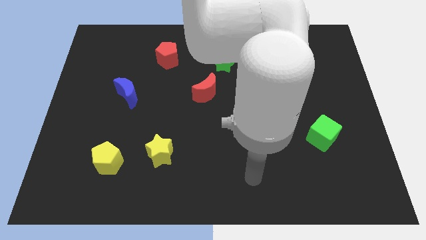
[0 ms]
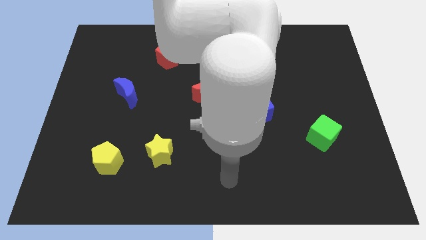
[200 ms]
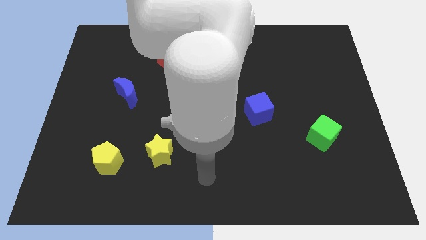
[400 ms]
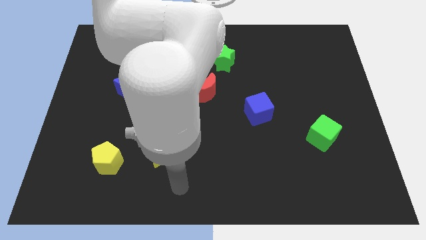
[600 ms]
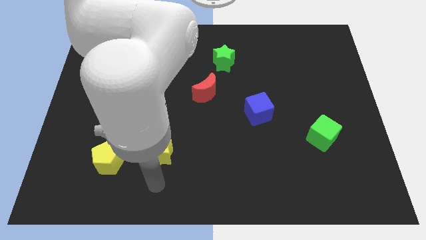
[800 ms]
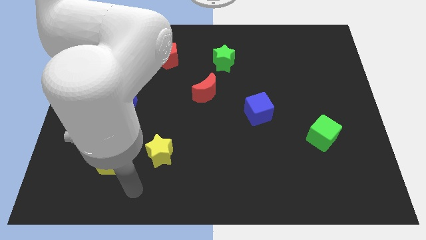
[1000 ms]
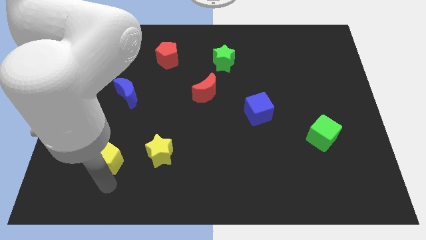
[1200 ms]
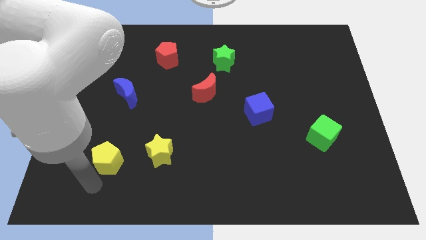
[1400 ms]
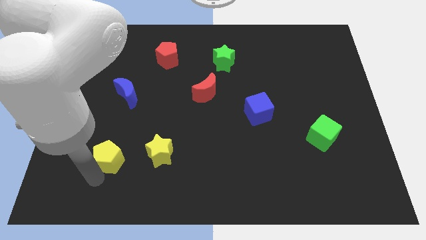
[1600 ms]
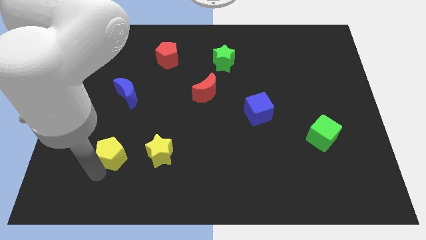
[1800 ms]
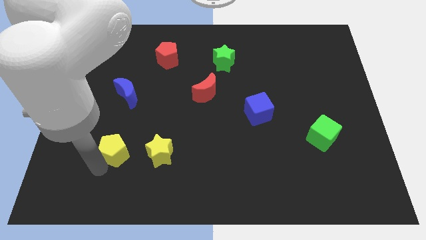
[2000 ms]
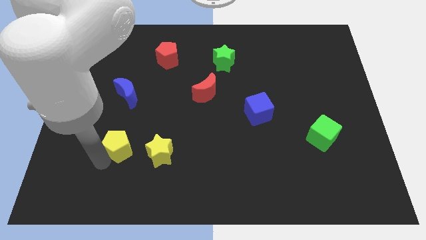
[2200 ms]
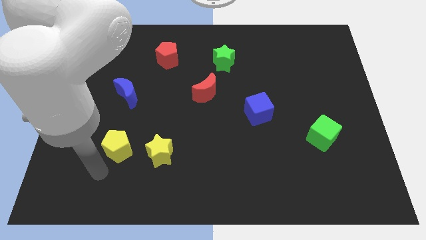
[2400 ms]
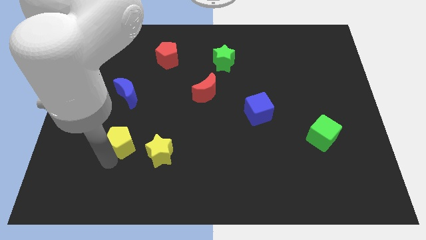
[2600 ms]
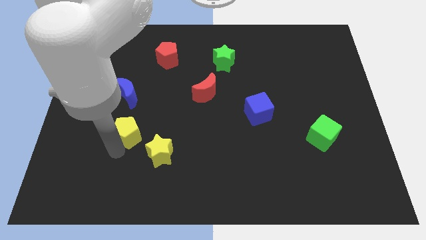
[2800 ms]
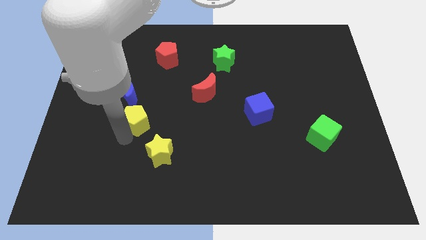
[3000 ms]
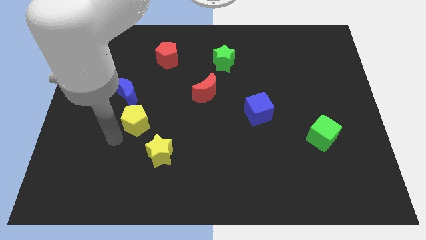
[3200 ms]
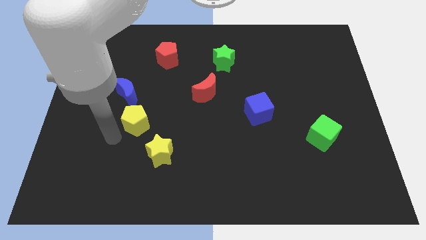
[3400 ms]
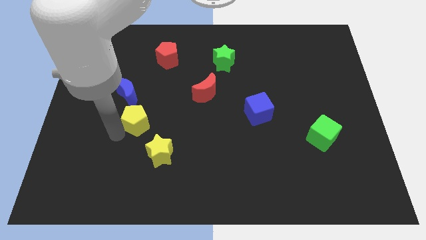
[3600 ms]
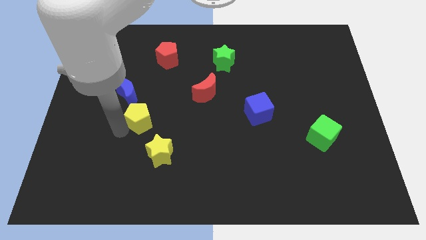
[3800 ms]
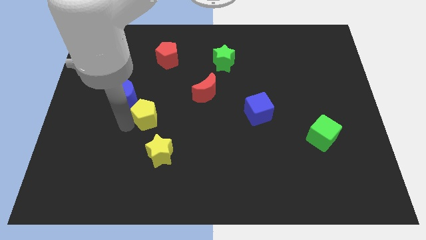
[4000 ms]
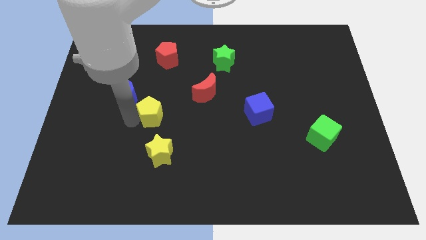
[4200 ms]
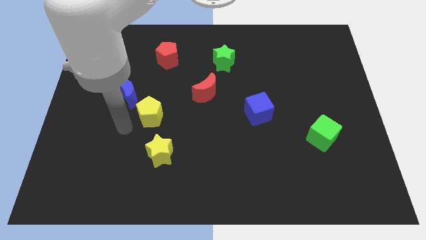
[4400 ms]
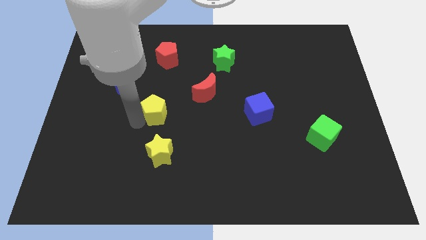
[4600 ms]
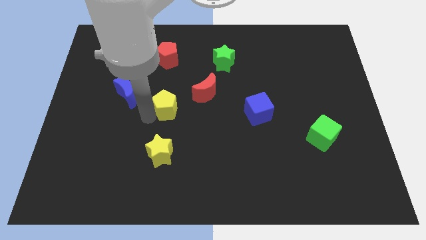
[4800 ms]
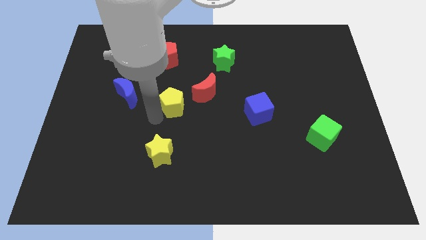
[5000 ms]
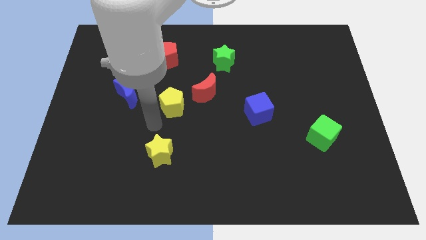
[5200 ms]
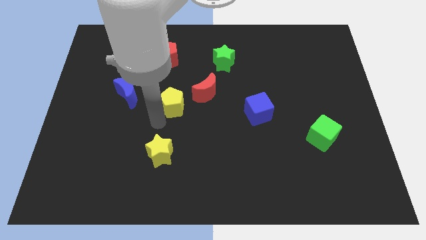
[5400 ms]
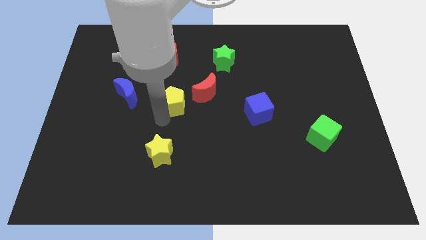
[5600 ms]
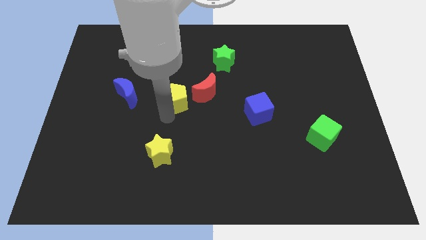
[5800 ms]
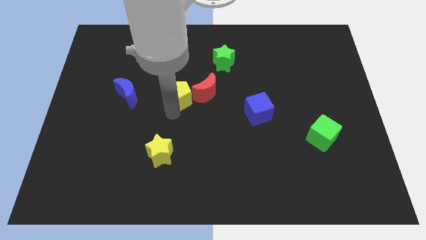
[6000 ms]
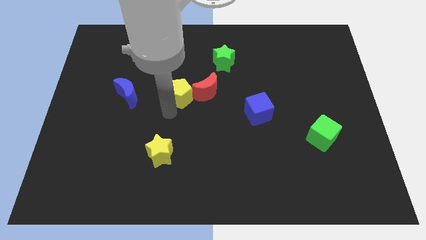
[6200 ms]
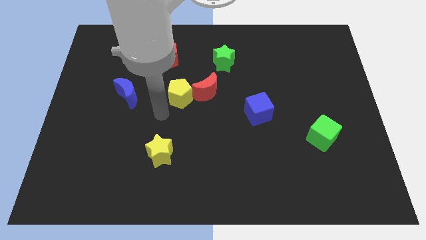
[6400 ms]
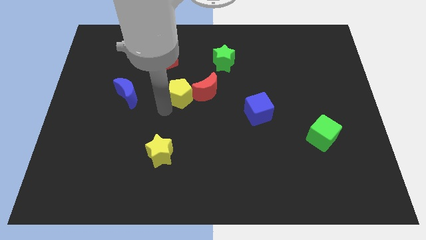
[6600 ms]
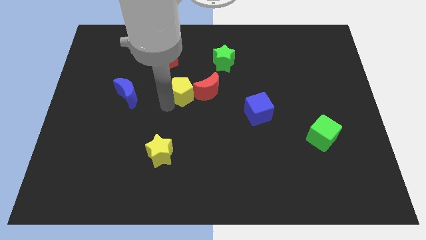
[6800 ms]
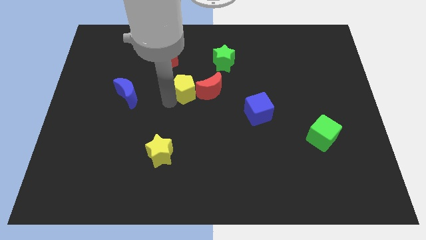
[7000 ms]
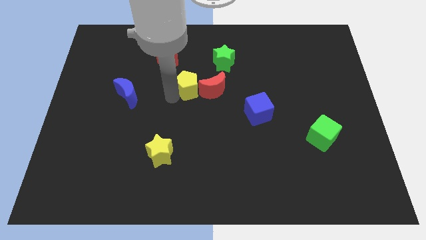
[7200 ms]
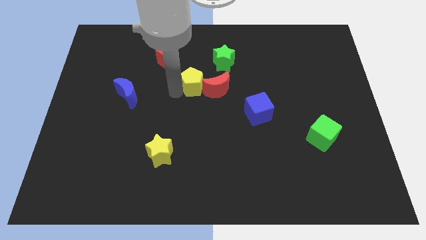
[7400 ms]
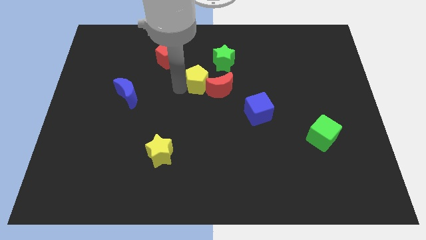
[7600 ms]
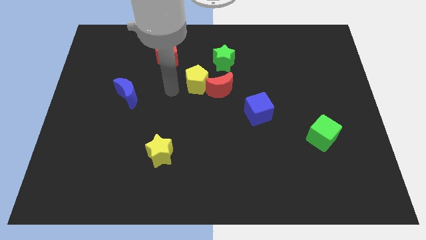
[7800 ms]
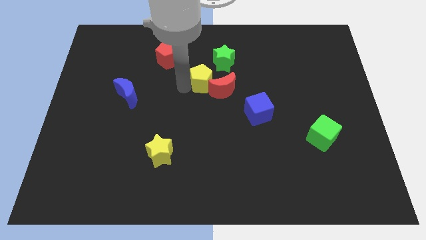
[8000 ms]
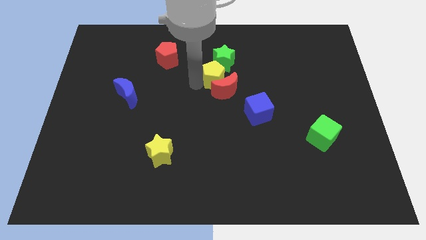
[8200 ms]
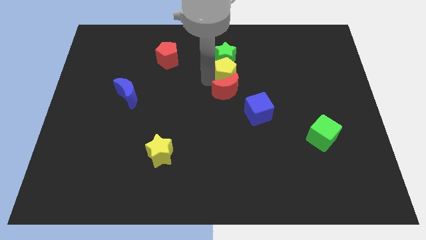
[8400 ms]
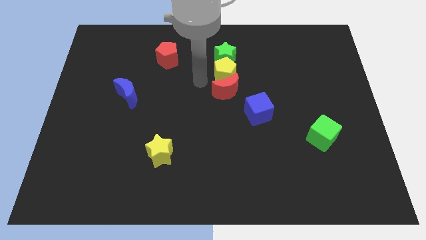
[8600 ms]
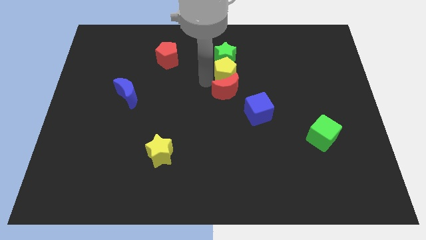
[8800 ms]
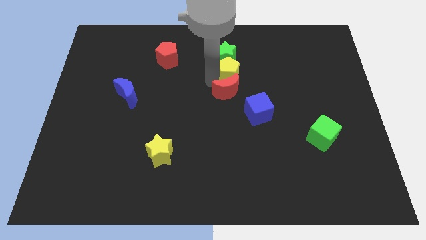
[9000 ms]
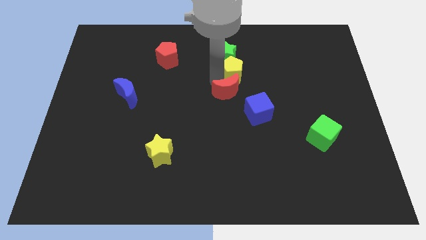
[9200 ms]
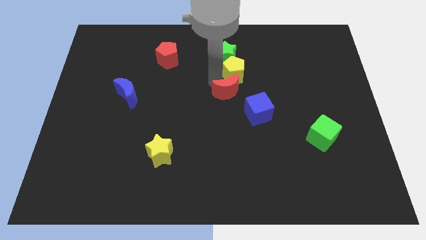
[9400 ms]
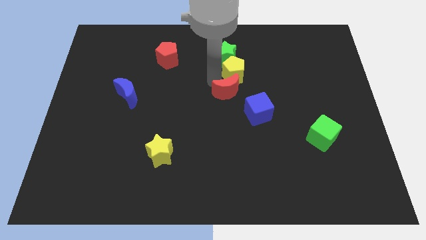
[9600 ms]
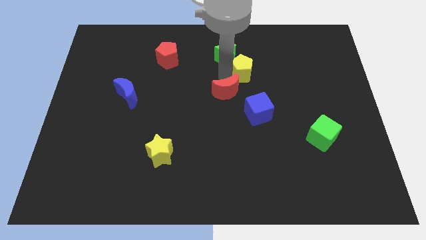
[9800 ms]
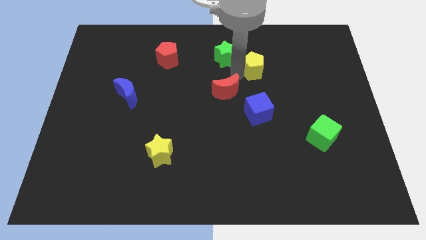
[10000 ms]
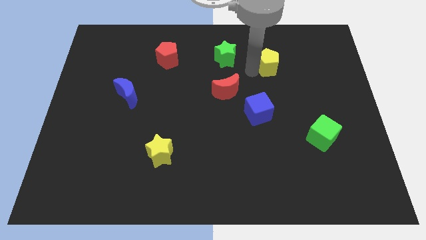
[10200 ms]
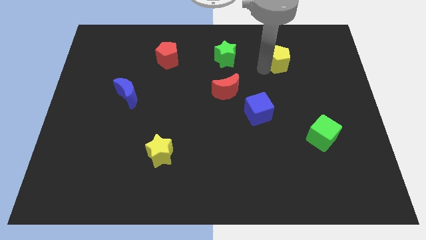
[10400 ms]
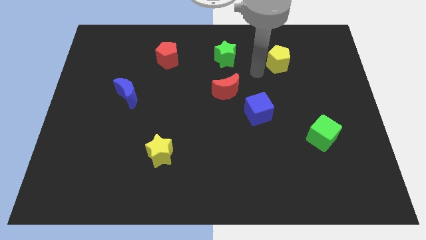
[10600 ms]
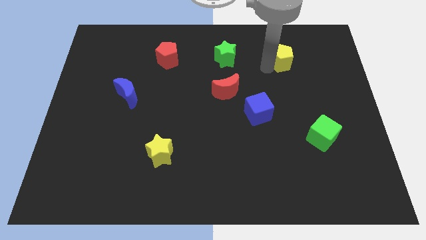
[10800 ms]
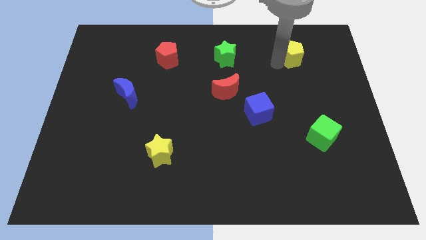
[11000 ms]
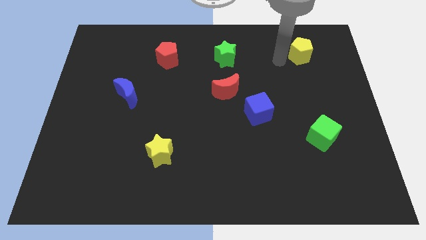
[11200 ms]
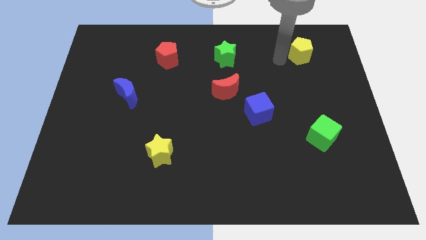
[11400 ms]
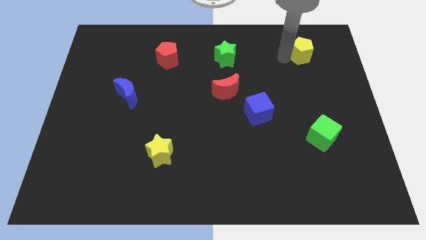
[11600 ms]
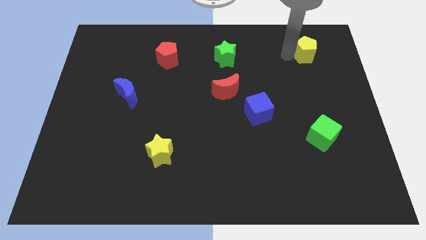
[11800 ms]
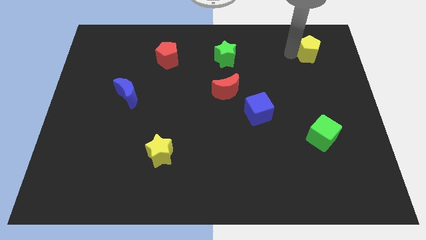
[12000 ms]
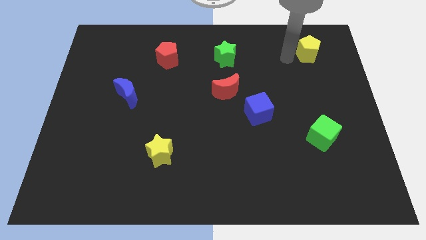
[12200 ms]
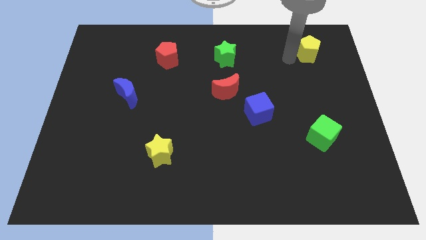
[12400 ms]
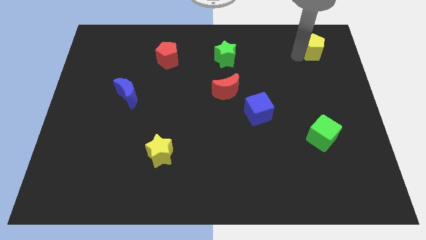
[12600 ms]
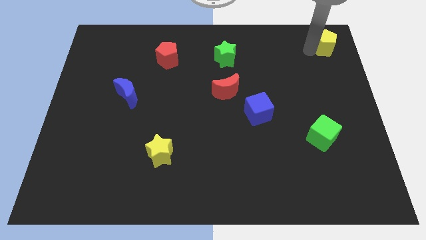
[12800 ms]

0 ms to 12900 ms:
move the yellow pentagon to the upper right corner

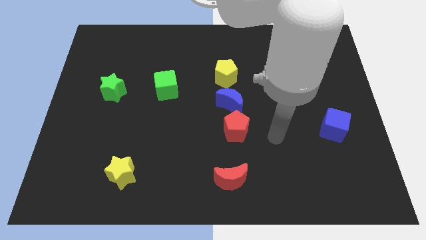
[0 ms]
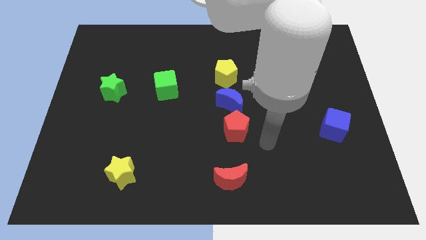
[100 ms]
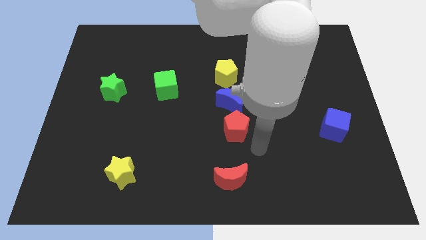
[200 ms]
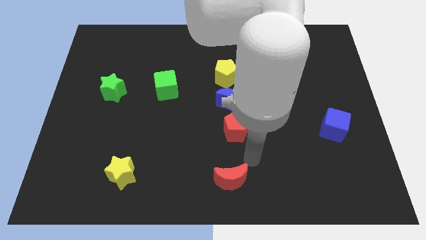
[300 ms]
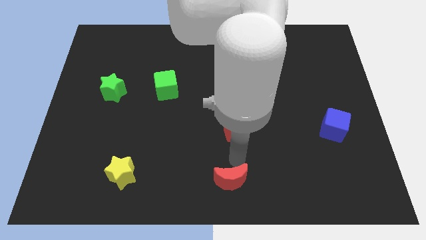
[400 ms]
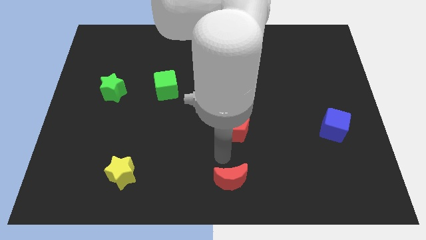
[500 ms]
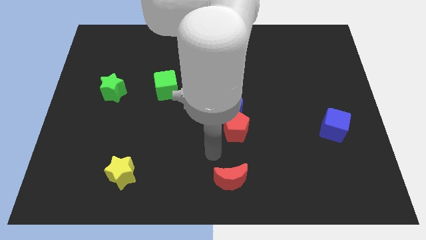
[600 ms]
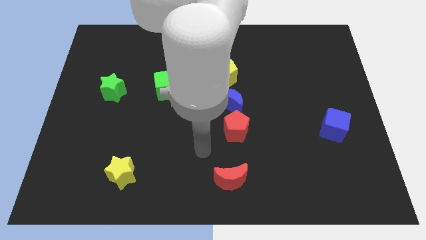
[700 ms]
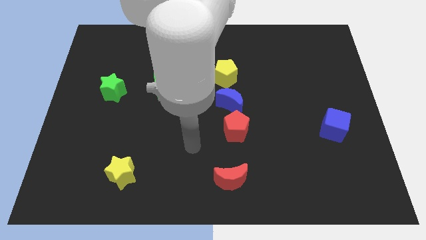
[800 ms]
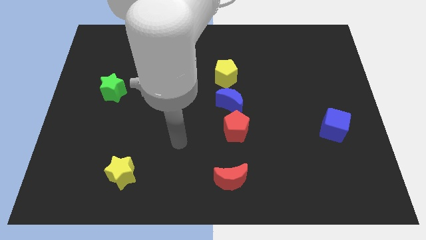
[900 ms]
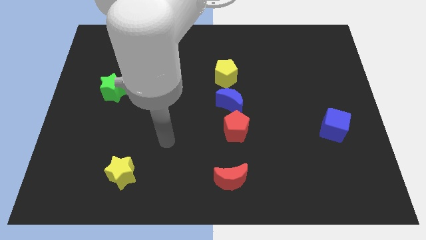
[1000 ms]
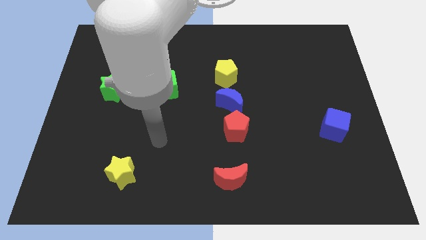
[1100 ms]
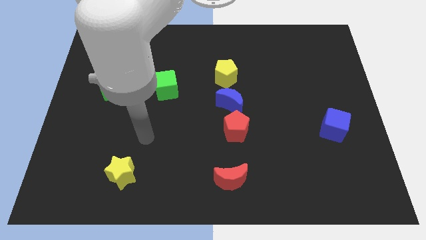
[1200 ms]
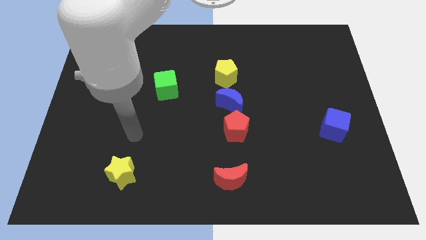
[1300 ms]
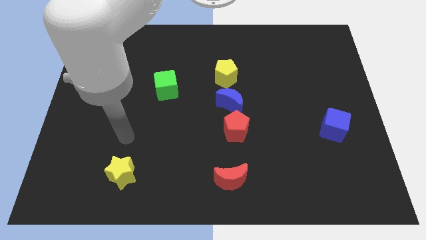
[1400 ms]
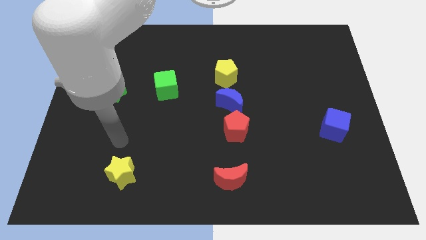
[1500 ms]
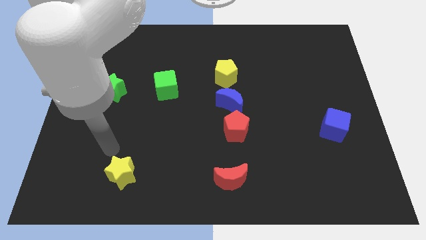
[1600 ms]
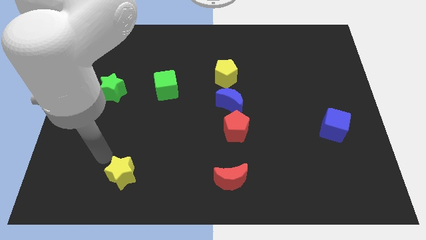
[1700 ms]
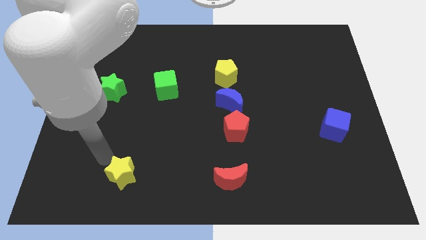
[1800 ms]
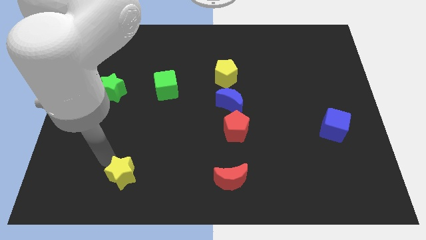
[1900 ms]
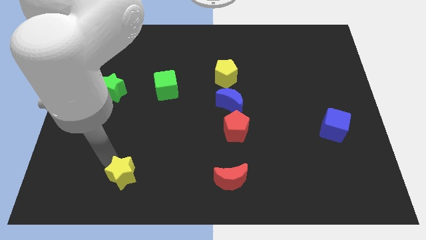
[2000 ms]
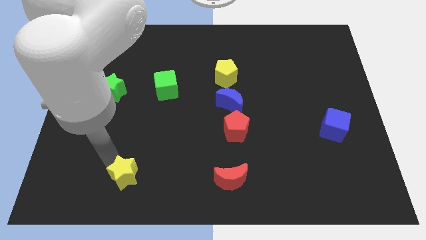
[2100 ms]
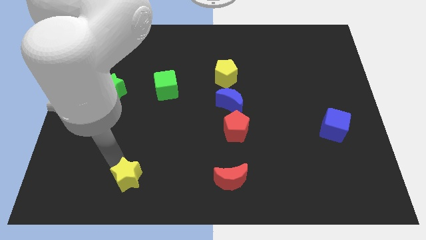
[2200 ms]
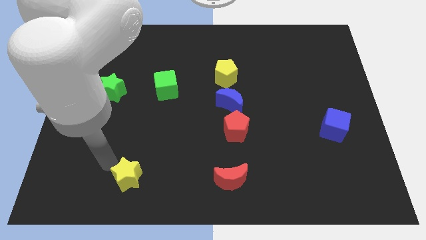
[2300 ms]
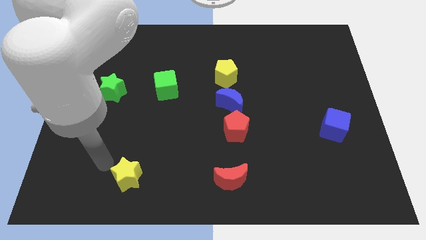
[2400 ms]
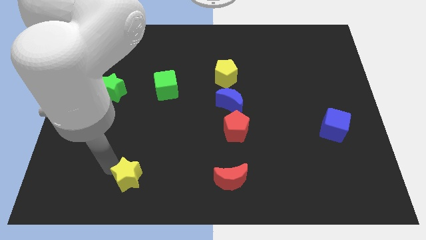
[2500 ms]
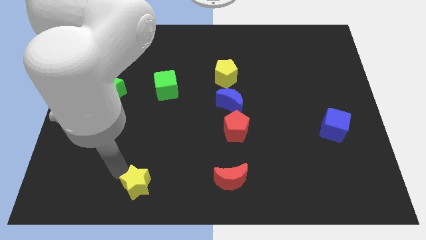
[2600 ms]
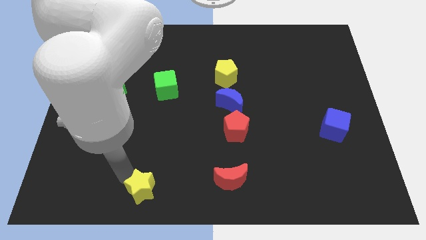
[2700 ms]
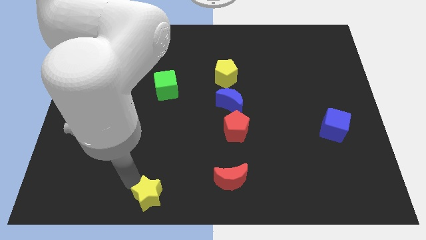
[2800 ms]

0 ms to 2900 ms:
push the yellow star to the bottom
